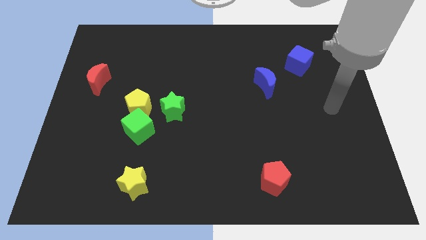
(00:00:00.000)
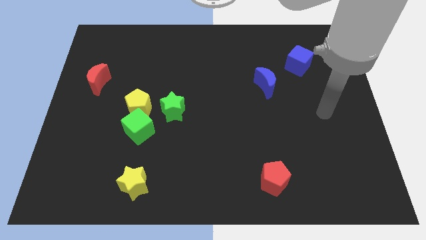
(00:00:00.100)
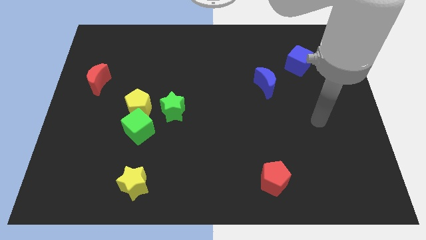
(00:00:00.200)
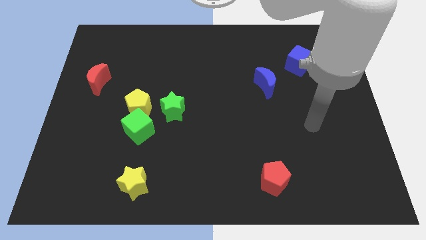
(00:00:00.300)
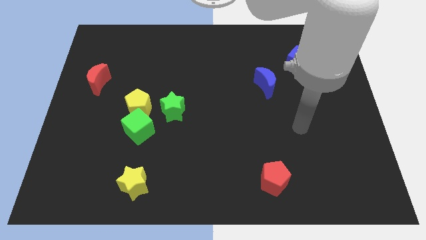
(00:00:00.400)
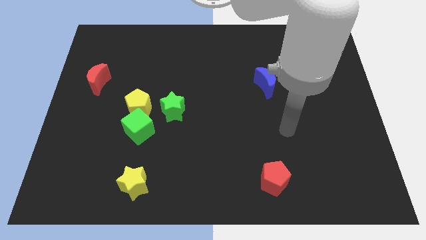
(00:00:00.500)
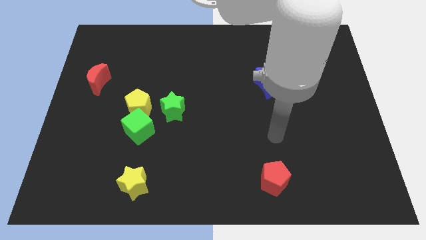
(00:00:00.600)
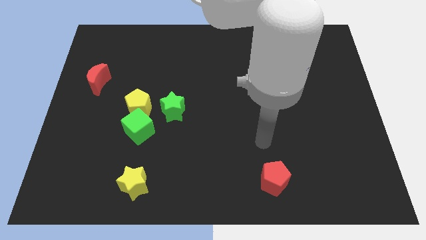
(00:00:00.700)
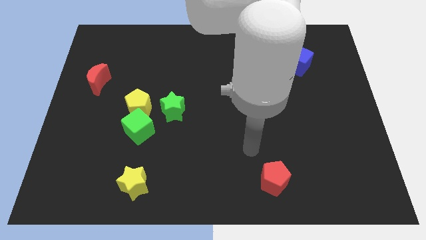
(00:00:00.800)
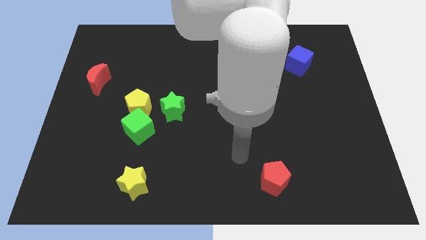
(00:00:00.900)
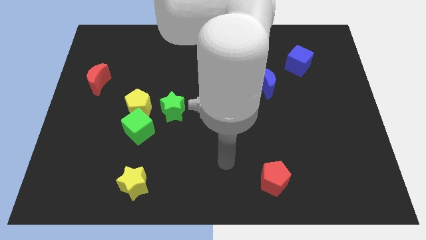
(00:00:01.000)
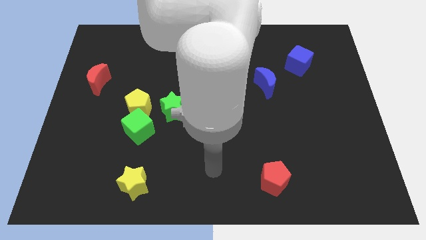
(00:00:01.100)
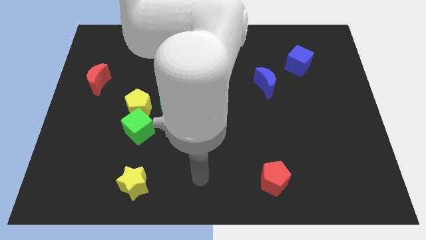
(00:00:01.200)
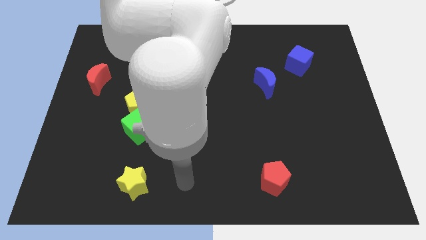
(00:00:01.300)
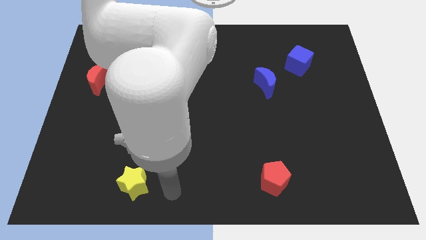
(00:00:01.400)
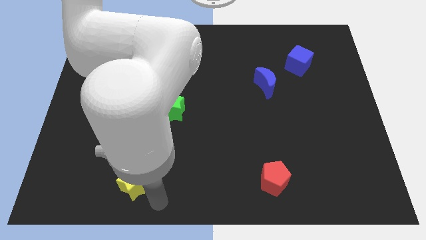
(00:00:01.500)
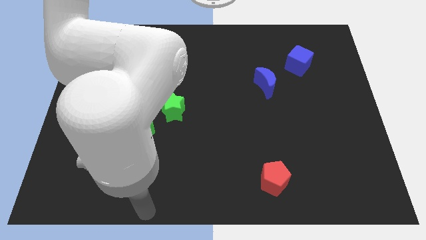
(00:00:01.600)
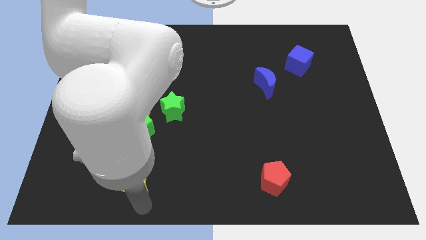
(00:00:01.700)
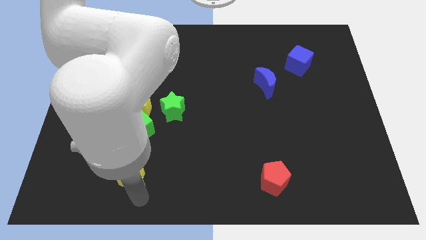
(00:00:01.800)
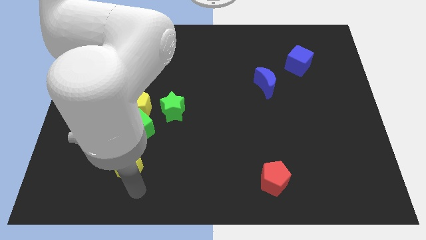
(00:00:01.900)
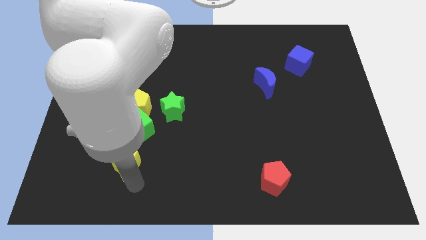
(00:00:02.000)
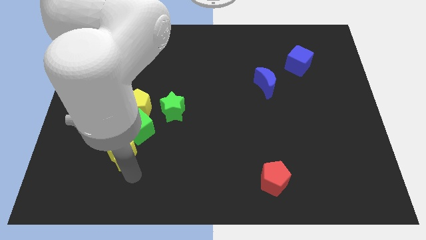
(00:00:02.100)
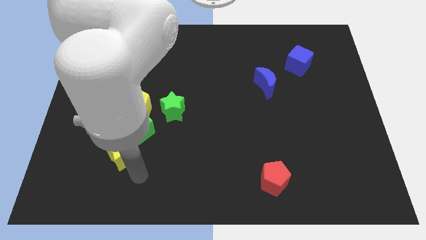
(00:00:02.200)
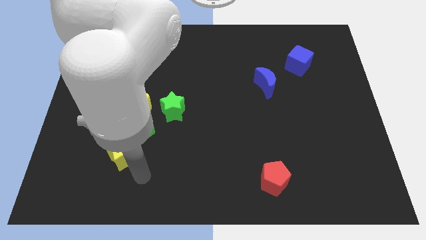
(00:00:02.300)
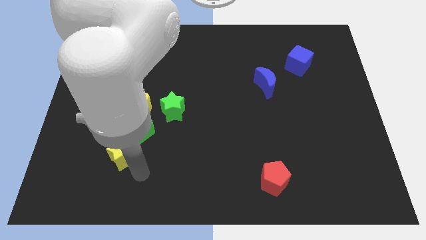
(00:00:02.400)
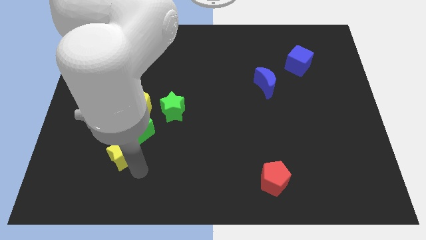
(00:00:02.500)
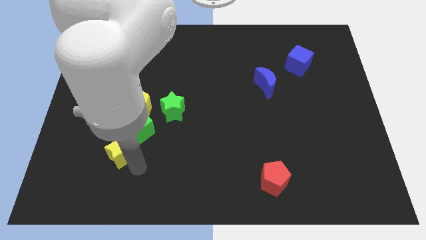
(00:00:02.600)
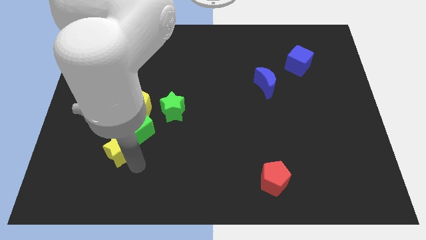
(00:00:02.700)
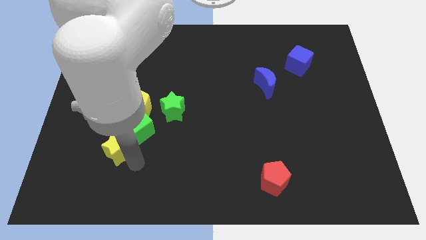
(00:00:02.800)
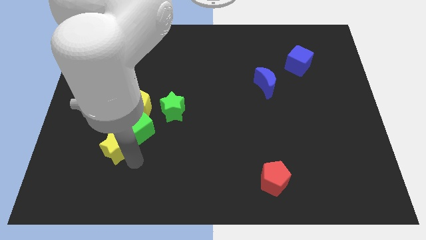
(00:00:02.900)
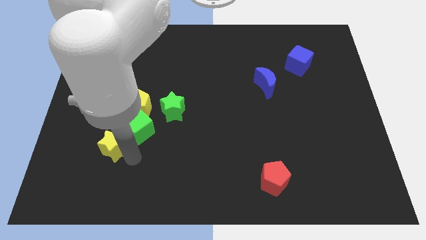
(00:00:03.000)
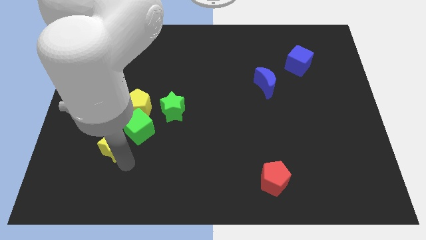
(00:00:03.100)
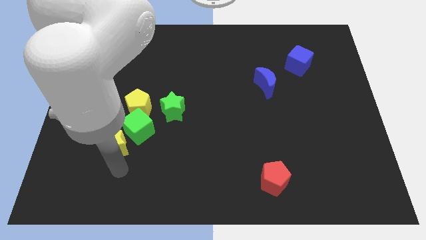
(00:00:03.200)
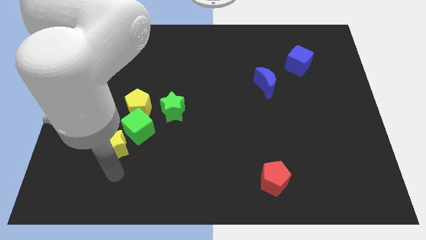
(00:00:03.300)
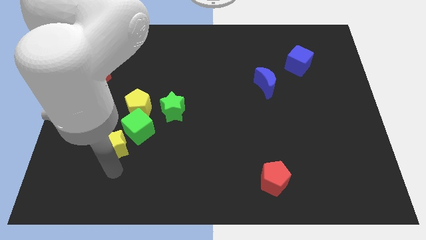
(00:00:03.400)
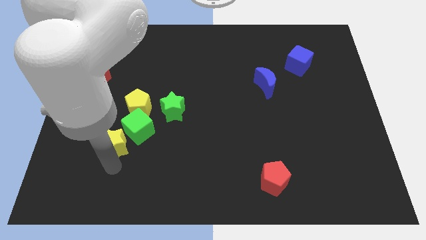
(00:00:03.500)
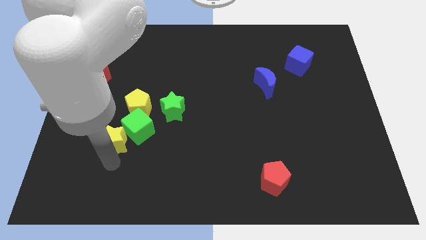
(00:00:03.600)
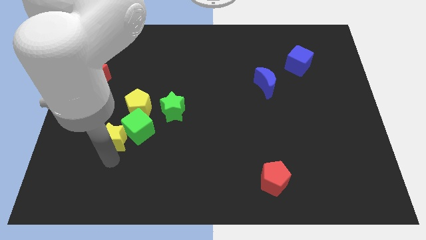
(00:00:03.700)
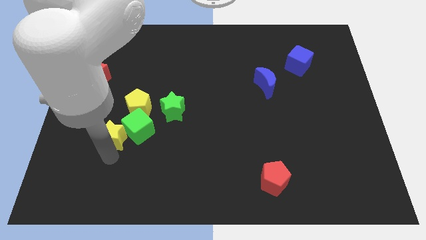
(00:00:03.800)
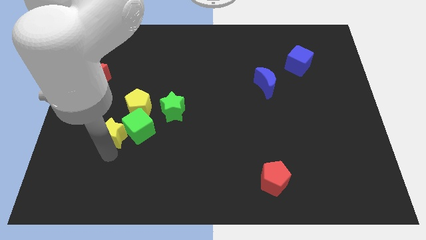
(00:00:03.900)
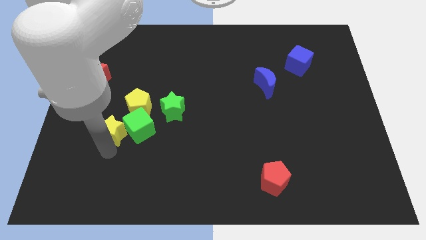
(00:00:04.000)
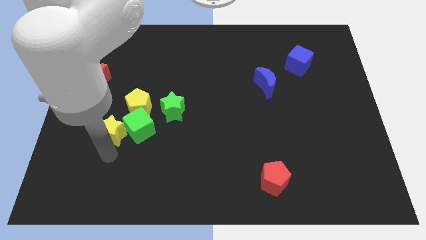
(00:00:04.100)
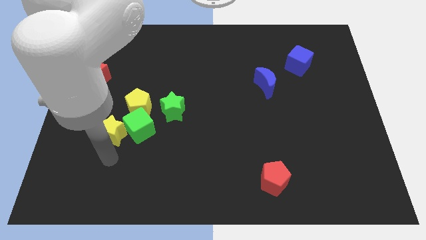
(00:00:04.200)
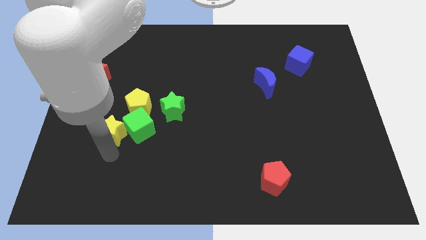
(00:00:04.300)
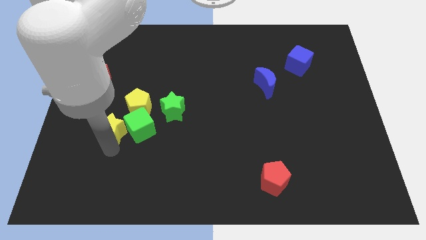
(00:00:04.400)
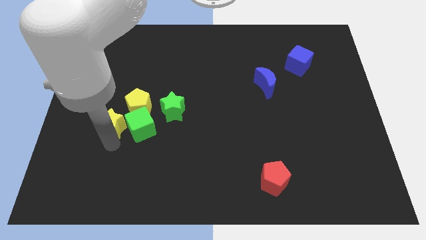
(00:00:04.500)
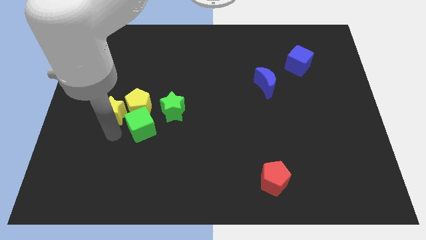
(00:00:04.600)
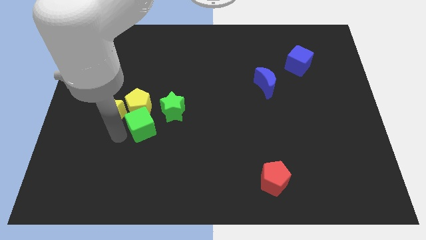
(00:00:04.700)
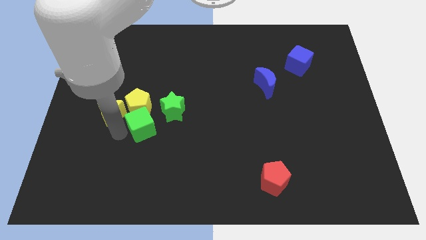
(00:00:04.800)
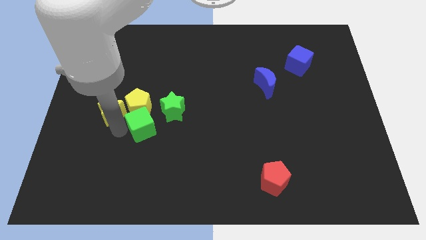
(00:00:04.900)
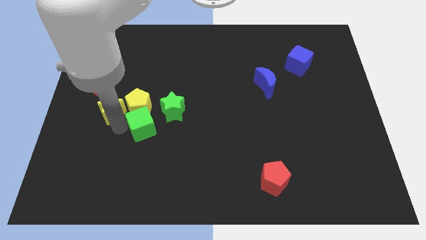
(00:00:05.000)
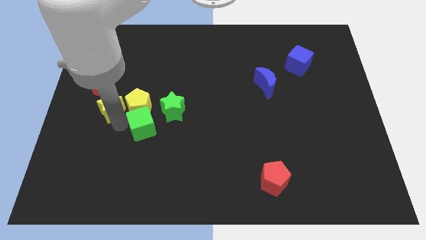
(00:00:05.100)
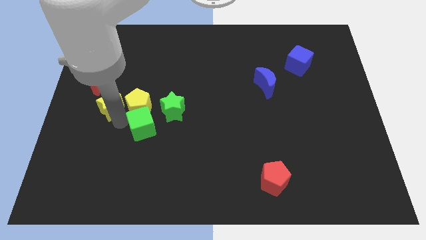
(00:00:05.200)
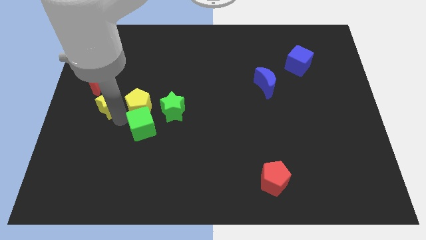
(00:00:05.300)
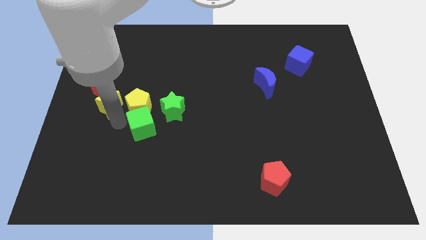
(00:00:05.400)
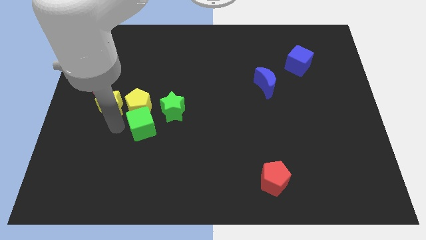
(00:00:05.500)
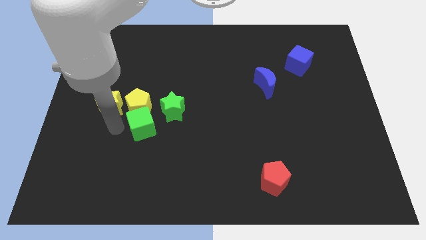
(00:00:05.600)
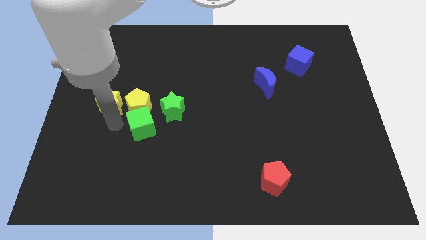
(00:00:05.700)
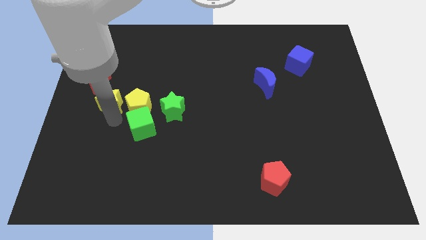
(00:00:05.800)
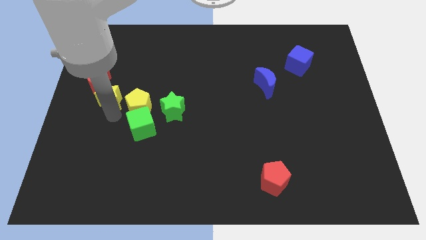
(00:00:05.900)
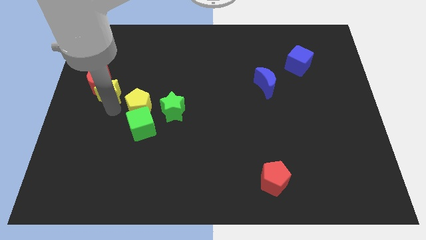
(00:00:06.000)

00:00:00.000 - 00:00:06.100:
move the yellow star next to the red moon
